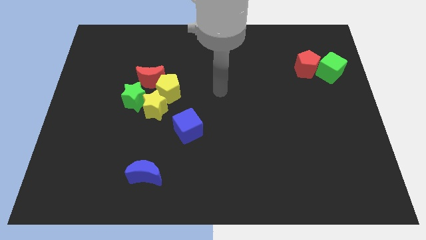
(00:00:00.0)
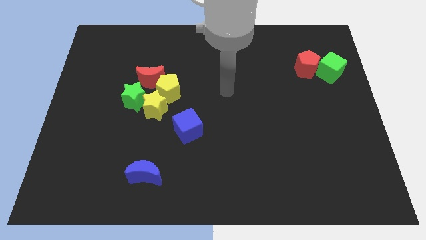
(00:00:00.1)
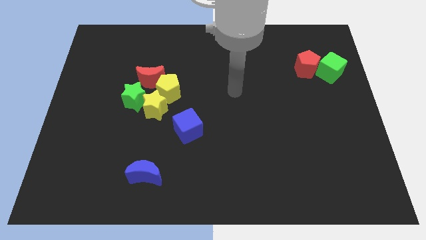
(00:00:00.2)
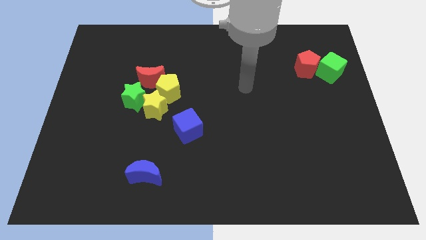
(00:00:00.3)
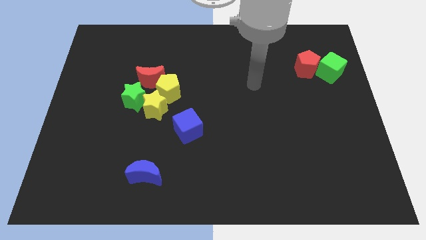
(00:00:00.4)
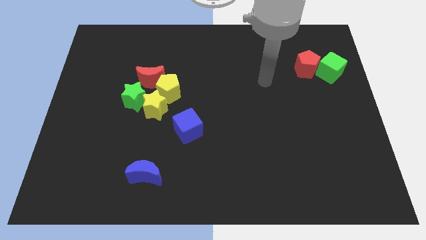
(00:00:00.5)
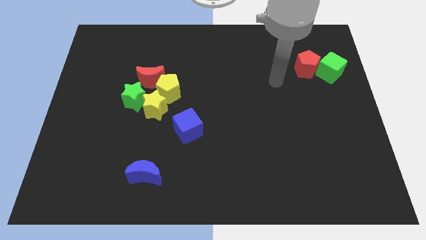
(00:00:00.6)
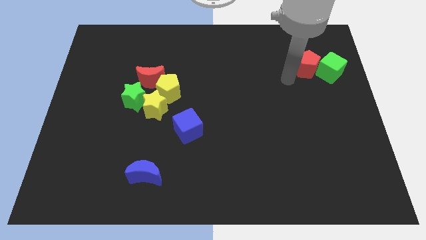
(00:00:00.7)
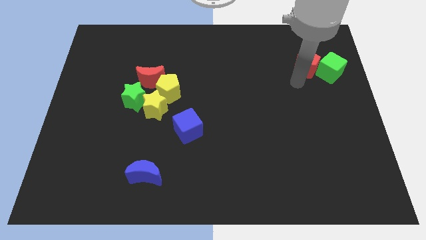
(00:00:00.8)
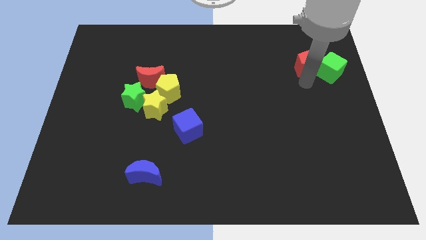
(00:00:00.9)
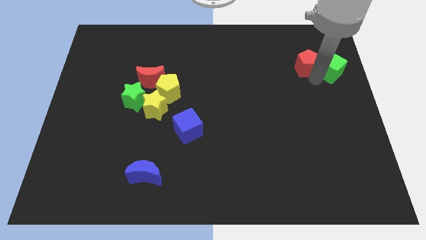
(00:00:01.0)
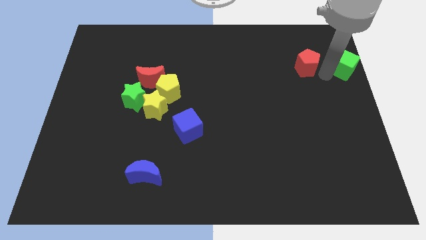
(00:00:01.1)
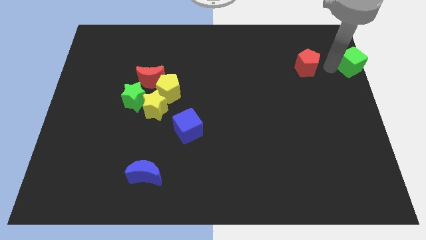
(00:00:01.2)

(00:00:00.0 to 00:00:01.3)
separate the red pentagon from the green cube

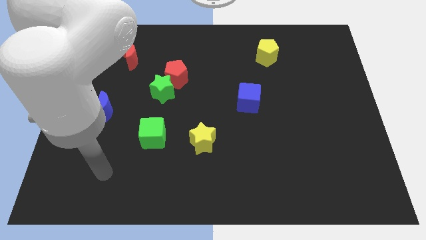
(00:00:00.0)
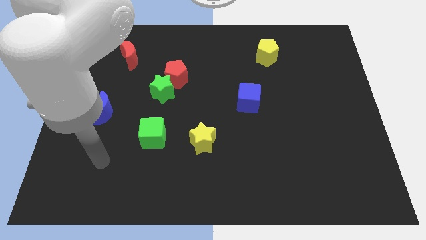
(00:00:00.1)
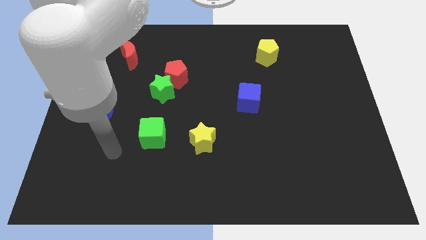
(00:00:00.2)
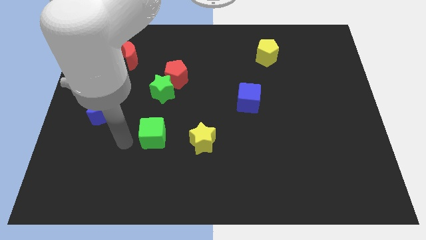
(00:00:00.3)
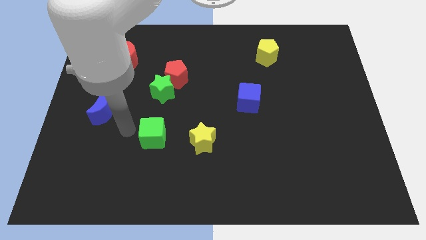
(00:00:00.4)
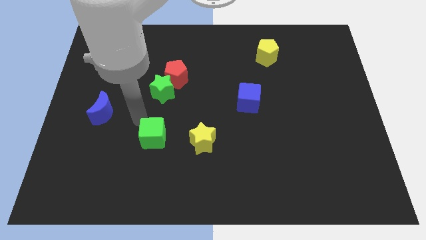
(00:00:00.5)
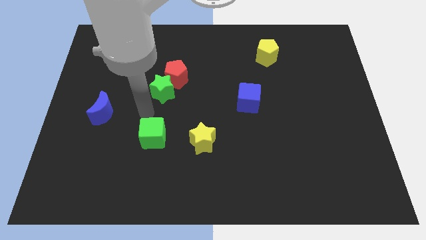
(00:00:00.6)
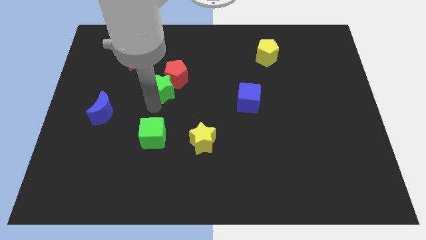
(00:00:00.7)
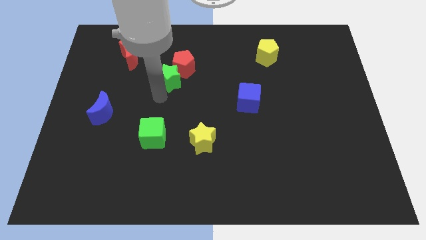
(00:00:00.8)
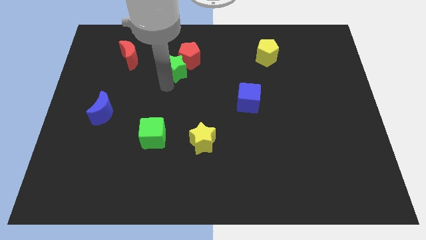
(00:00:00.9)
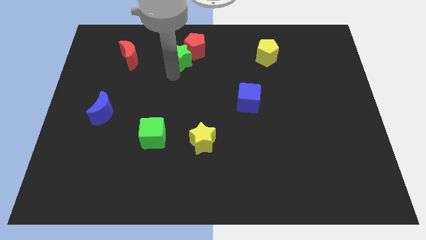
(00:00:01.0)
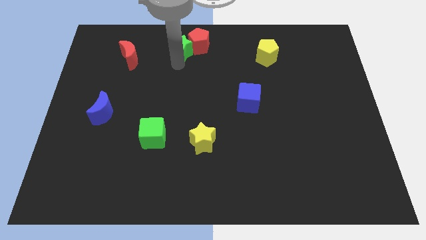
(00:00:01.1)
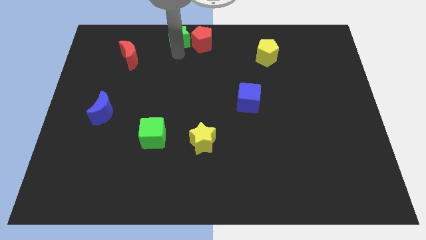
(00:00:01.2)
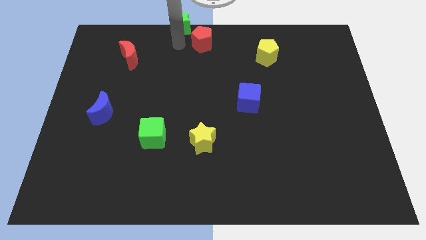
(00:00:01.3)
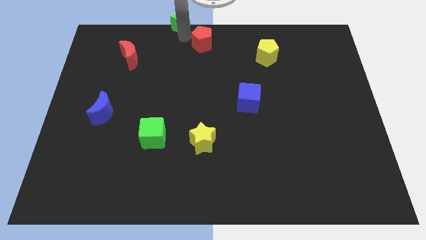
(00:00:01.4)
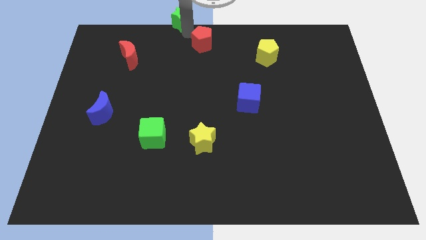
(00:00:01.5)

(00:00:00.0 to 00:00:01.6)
pull the red pentagon apart from the green star

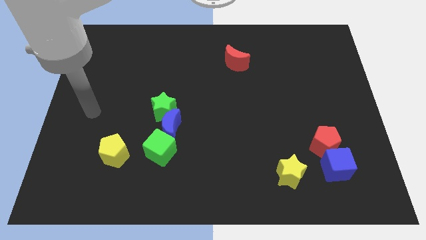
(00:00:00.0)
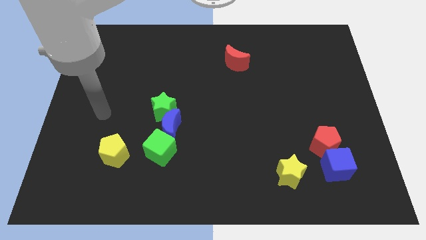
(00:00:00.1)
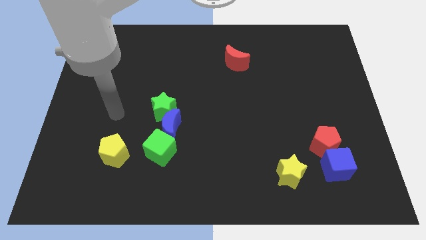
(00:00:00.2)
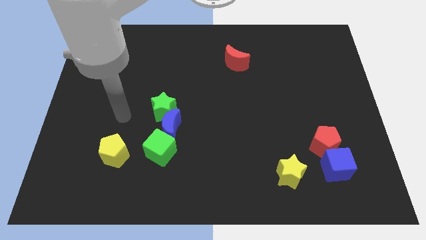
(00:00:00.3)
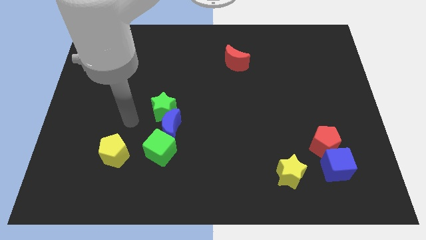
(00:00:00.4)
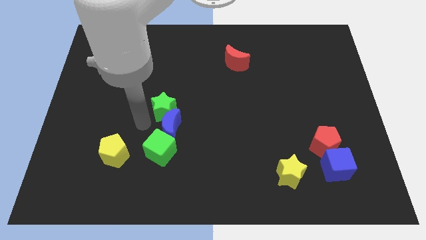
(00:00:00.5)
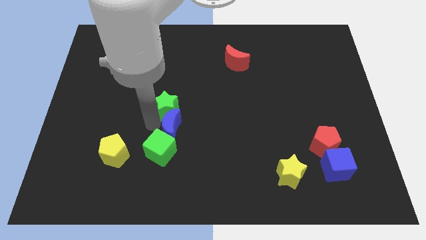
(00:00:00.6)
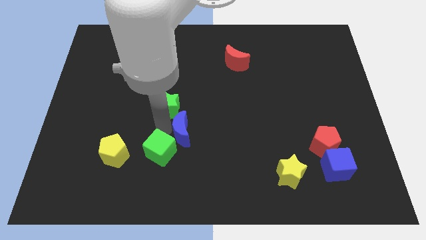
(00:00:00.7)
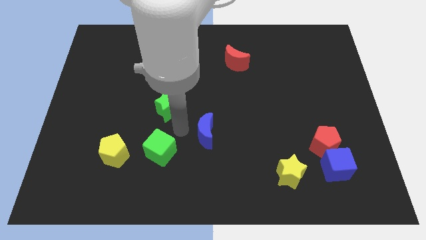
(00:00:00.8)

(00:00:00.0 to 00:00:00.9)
pull the green star apart from the blue moon

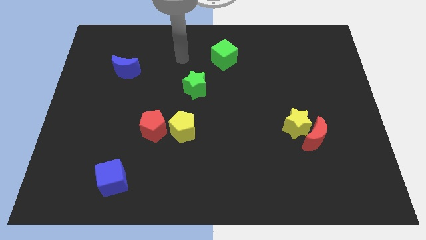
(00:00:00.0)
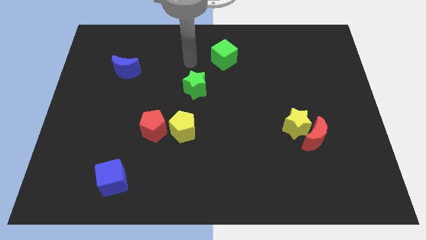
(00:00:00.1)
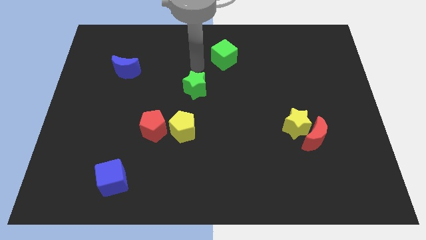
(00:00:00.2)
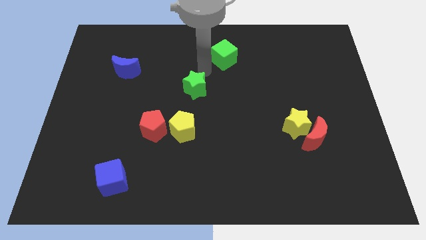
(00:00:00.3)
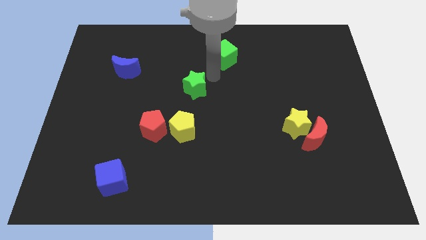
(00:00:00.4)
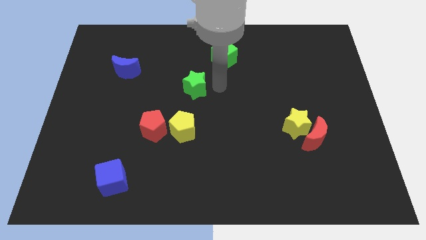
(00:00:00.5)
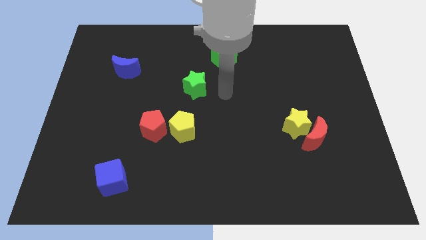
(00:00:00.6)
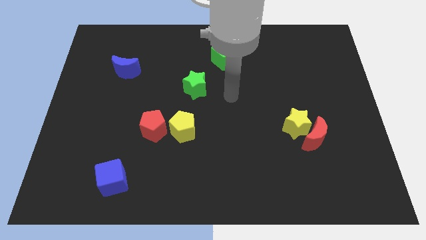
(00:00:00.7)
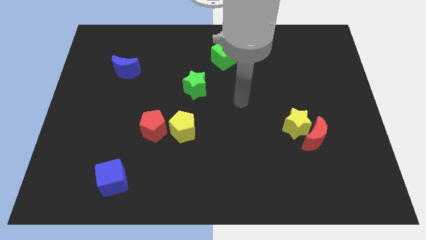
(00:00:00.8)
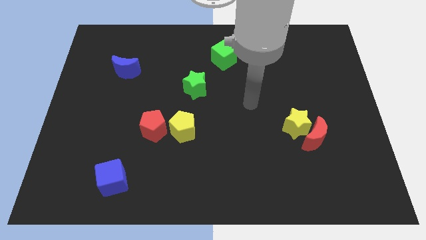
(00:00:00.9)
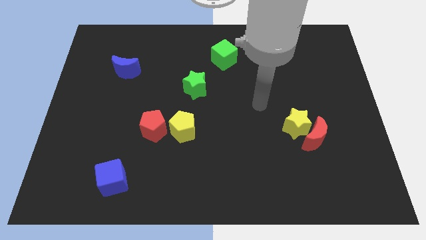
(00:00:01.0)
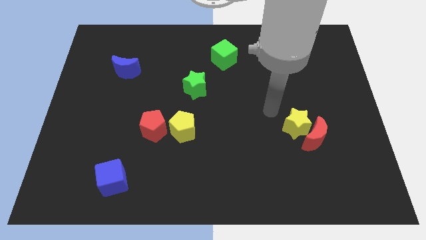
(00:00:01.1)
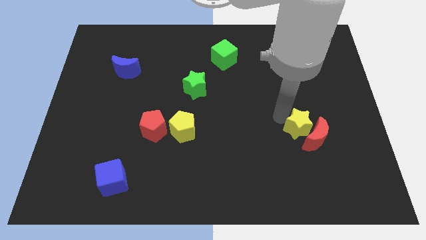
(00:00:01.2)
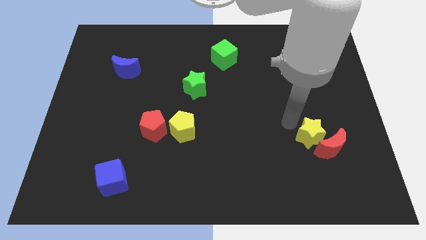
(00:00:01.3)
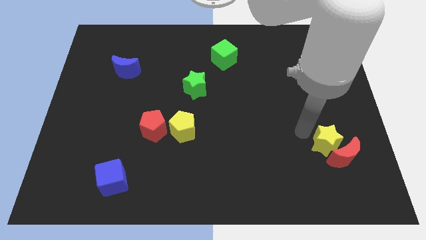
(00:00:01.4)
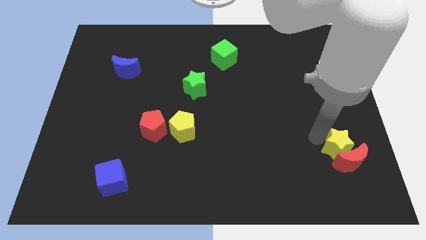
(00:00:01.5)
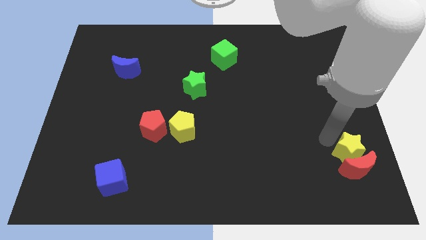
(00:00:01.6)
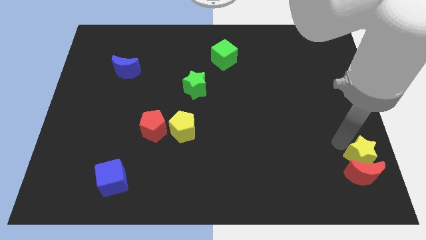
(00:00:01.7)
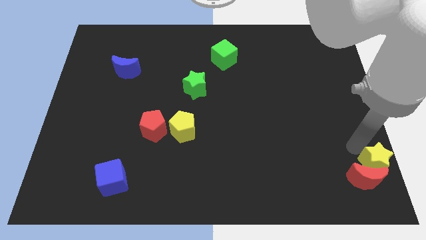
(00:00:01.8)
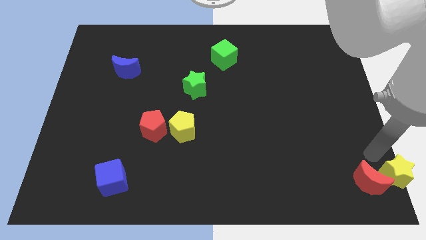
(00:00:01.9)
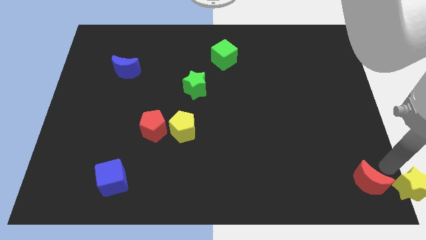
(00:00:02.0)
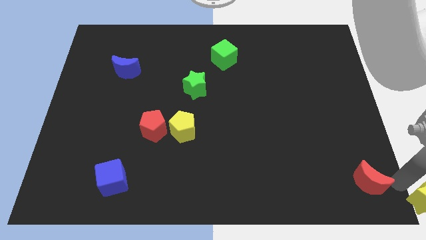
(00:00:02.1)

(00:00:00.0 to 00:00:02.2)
pull the red moon apart from the yellow star

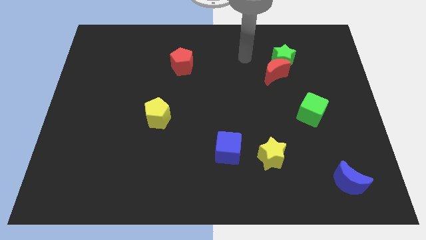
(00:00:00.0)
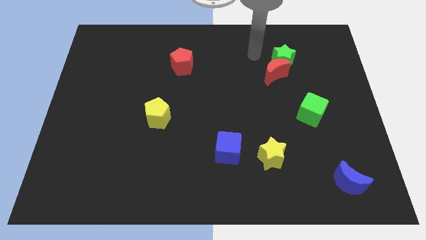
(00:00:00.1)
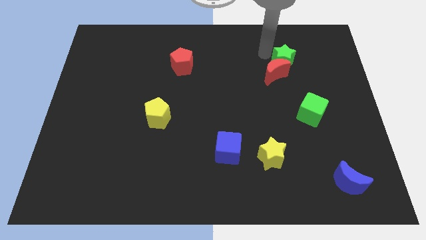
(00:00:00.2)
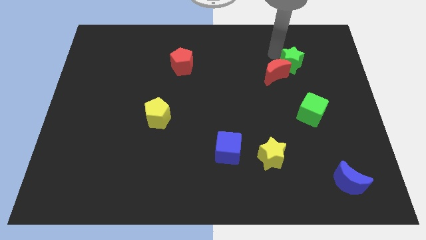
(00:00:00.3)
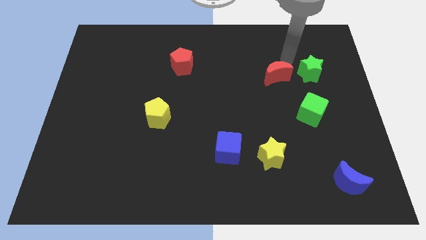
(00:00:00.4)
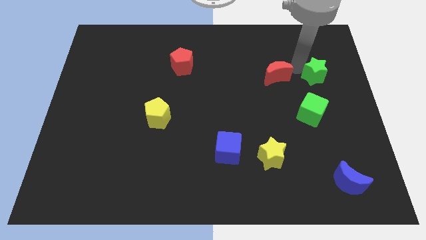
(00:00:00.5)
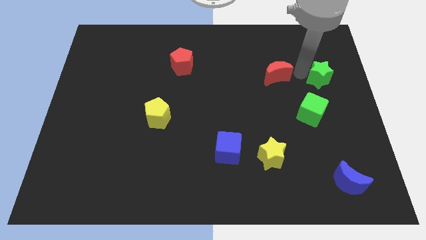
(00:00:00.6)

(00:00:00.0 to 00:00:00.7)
move the red moon away from the green star

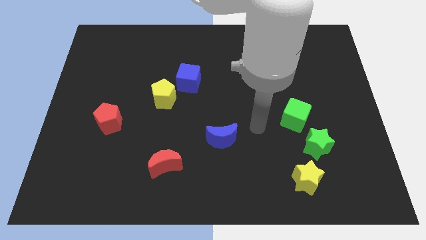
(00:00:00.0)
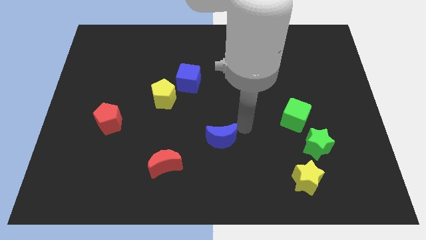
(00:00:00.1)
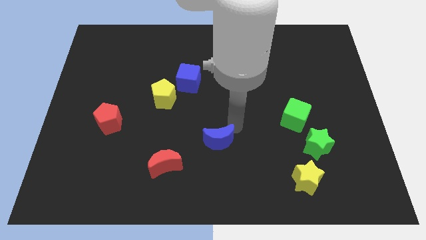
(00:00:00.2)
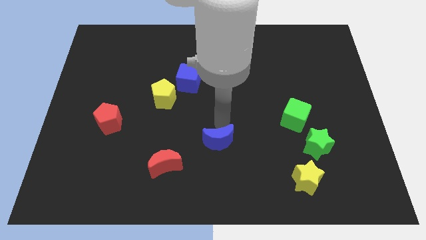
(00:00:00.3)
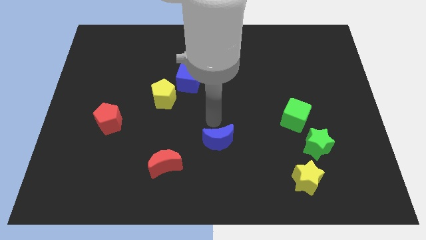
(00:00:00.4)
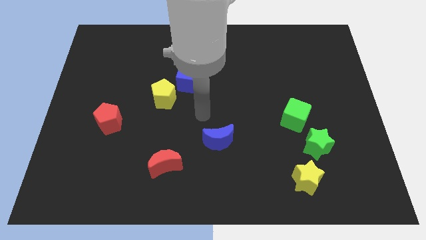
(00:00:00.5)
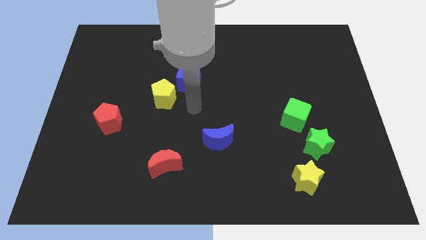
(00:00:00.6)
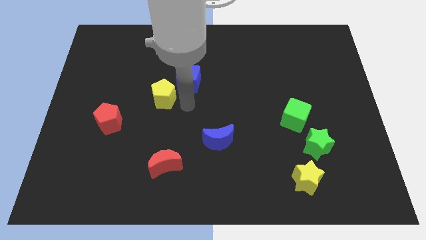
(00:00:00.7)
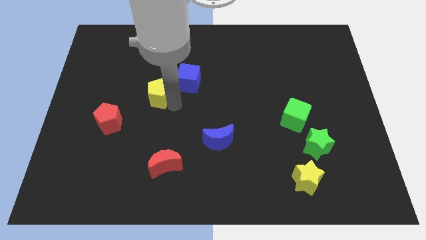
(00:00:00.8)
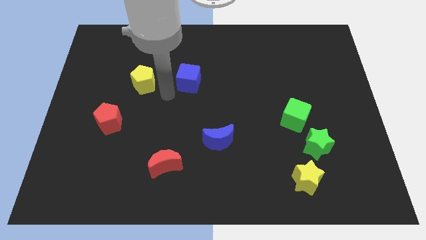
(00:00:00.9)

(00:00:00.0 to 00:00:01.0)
separate the blue cube from the yellow pentagon

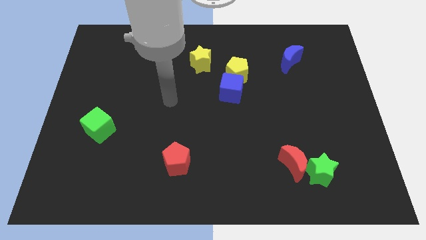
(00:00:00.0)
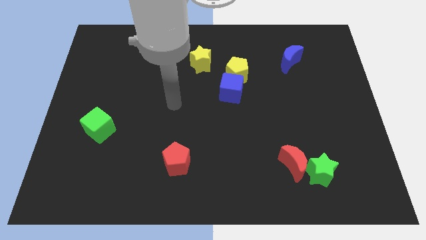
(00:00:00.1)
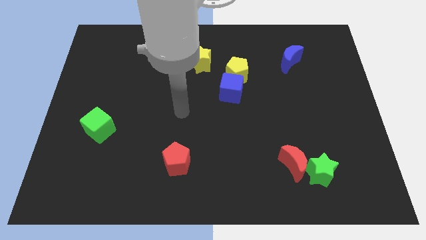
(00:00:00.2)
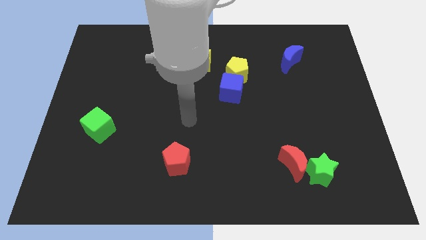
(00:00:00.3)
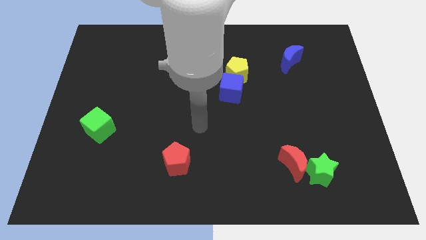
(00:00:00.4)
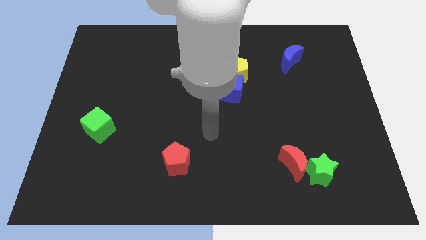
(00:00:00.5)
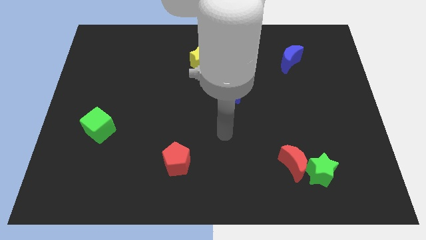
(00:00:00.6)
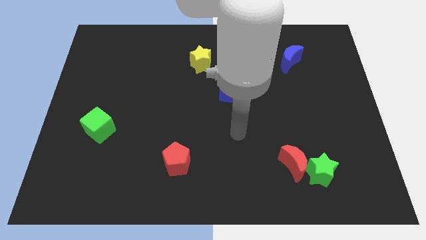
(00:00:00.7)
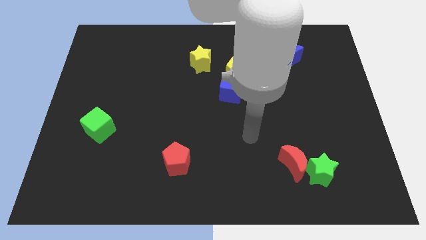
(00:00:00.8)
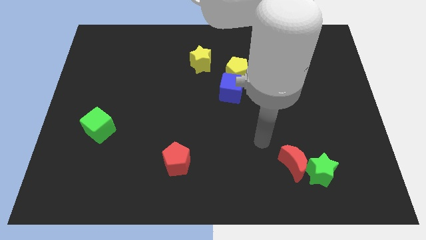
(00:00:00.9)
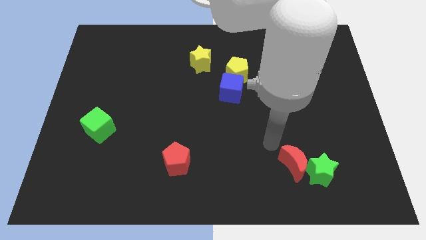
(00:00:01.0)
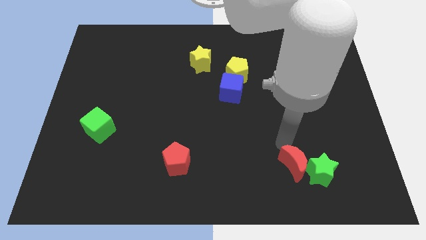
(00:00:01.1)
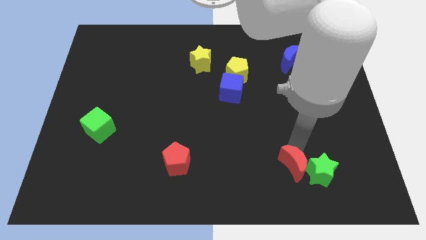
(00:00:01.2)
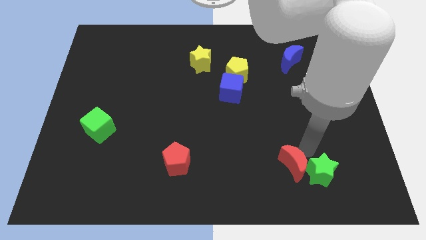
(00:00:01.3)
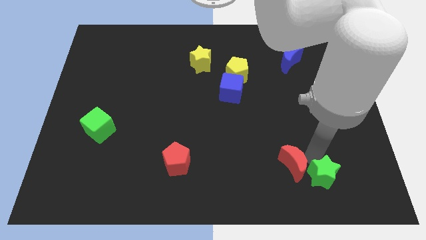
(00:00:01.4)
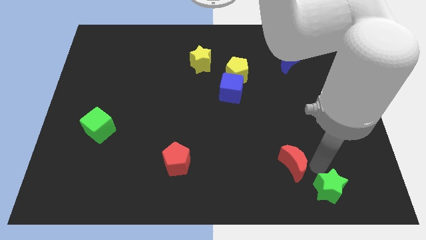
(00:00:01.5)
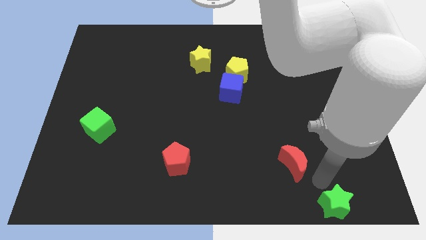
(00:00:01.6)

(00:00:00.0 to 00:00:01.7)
pull the red moon apart from the green star
